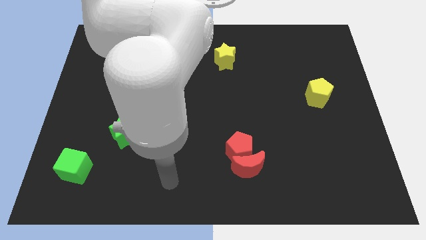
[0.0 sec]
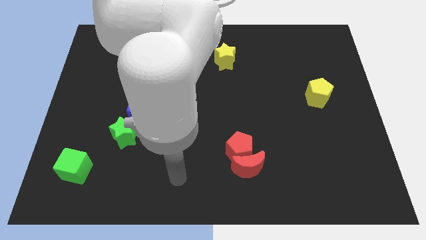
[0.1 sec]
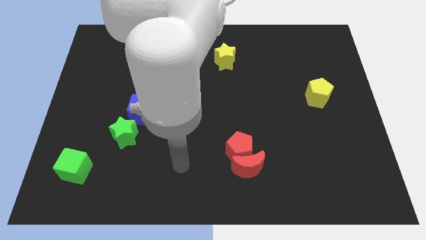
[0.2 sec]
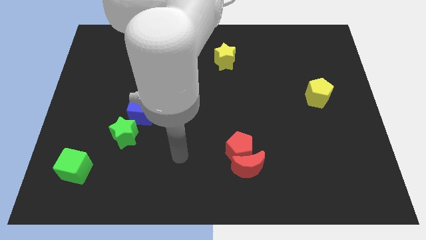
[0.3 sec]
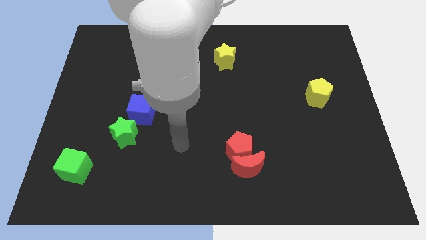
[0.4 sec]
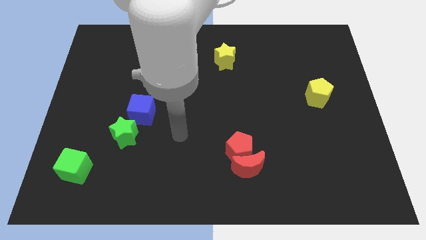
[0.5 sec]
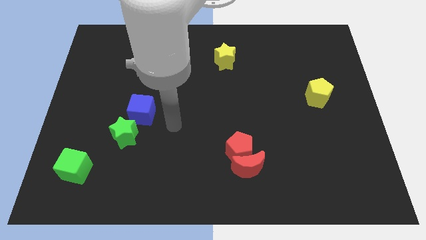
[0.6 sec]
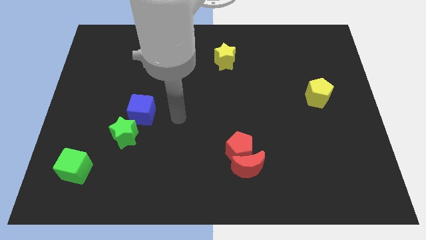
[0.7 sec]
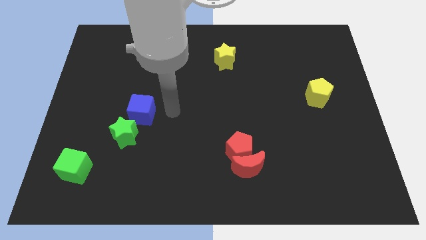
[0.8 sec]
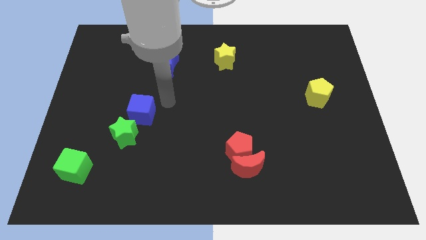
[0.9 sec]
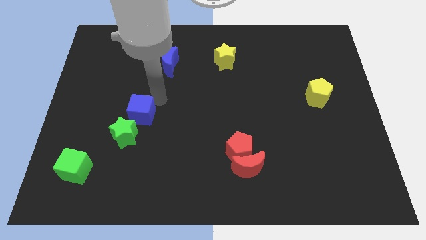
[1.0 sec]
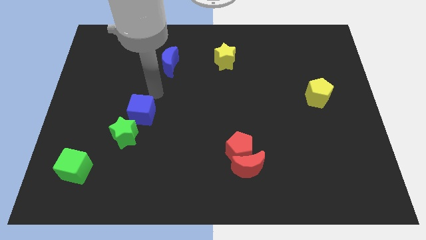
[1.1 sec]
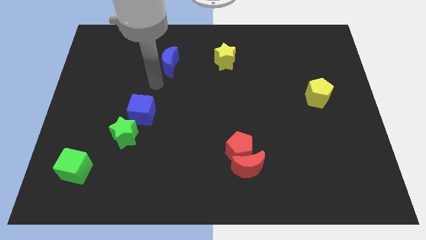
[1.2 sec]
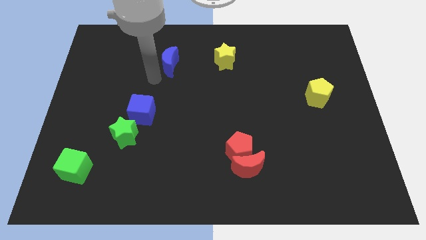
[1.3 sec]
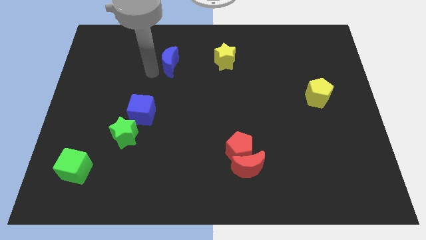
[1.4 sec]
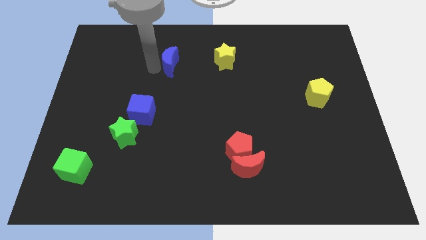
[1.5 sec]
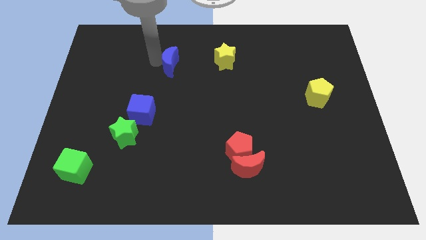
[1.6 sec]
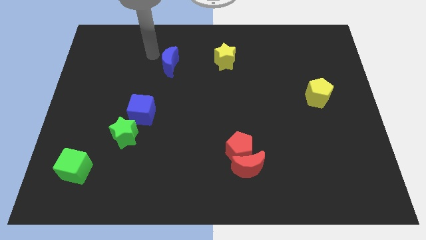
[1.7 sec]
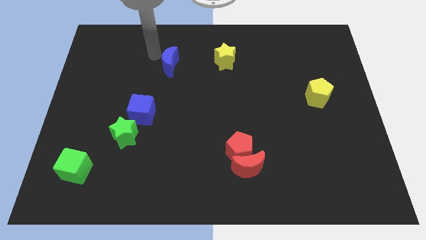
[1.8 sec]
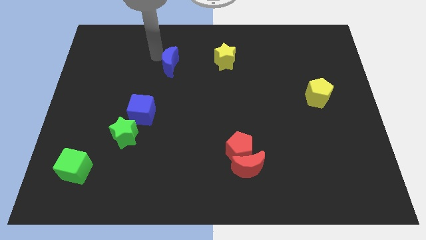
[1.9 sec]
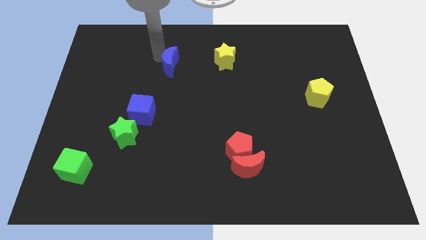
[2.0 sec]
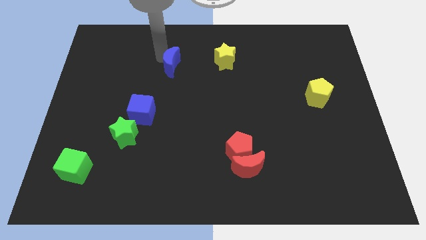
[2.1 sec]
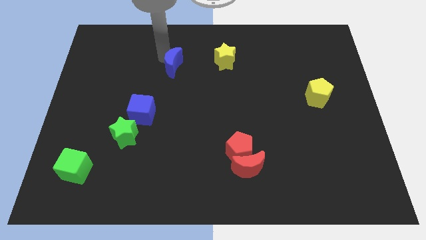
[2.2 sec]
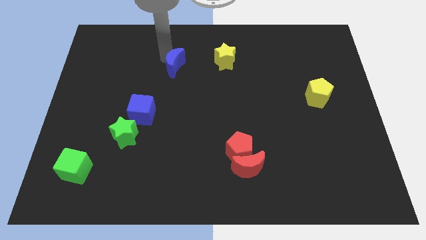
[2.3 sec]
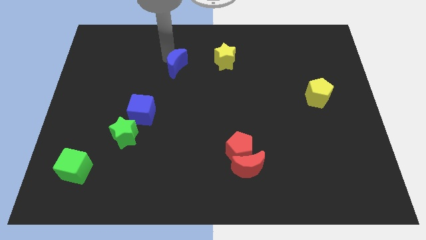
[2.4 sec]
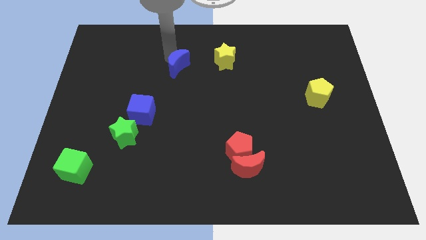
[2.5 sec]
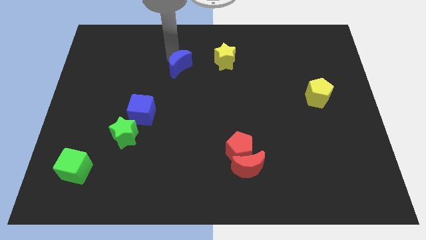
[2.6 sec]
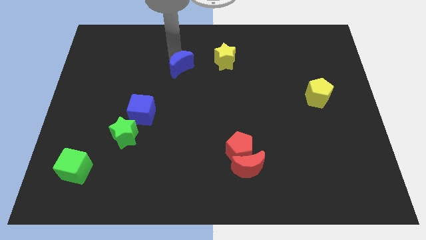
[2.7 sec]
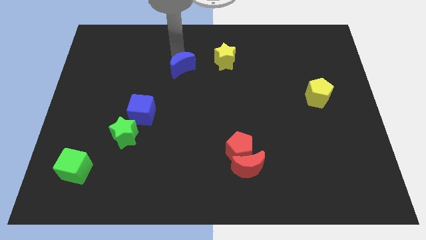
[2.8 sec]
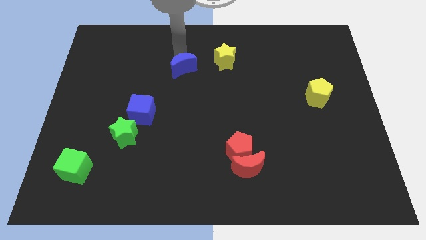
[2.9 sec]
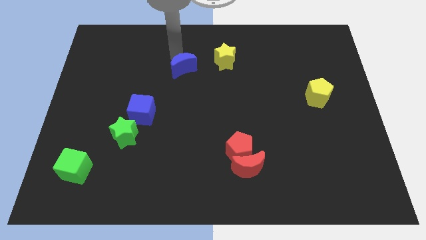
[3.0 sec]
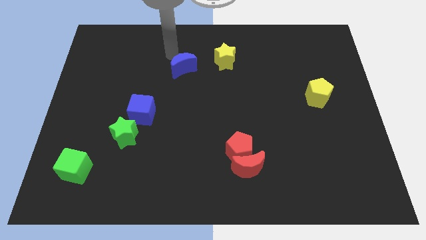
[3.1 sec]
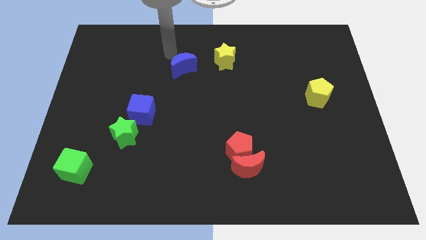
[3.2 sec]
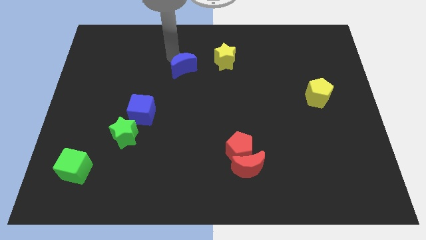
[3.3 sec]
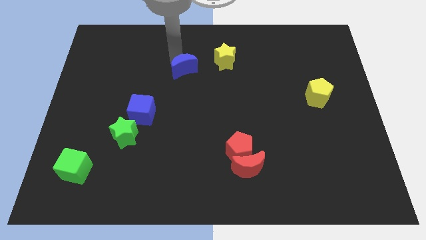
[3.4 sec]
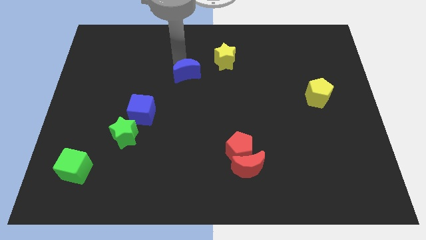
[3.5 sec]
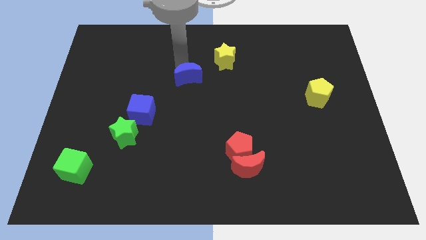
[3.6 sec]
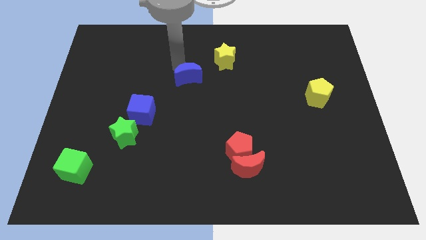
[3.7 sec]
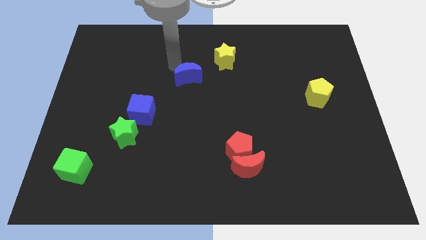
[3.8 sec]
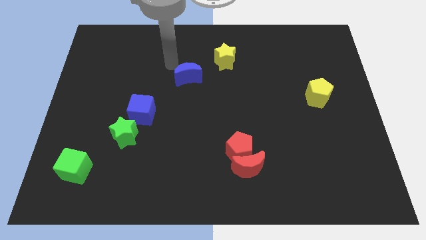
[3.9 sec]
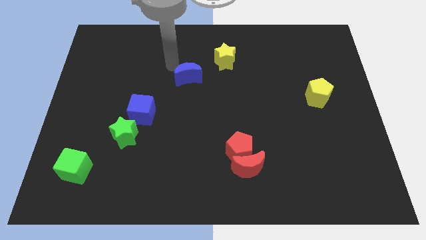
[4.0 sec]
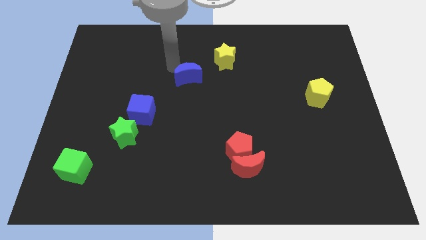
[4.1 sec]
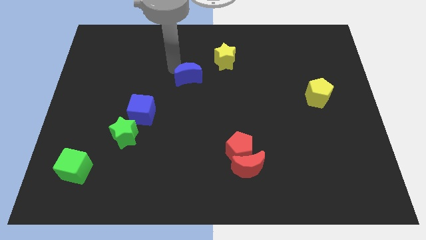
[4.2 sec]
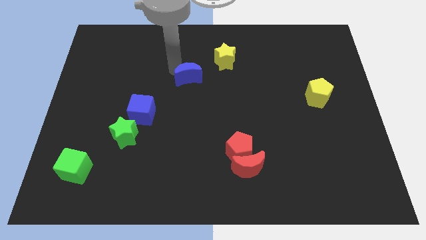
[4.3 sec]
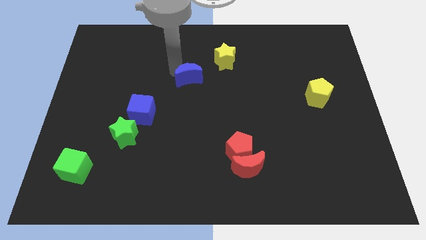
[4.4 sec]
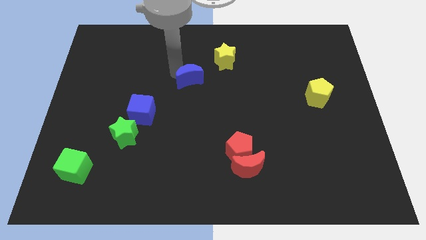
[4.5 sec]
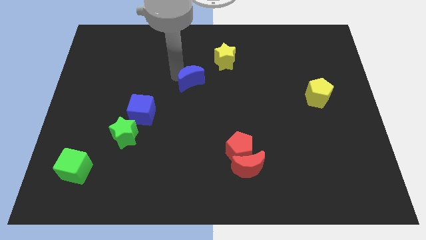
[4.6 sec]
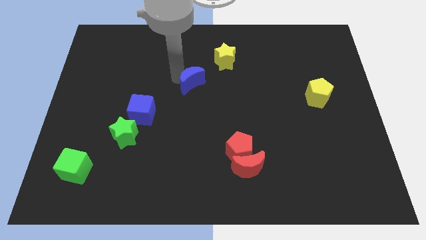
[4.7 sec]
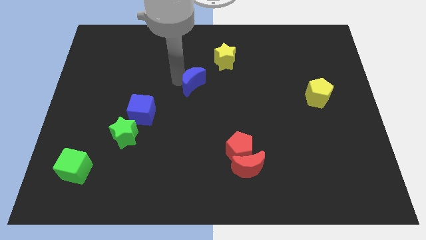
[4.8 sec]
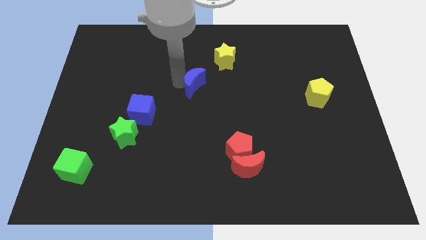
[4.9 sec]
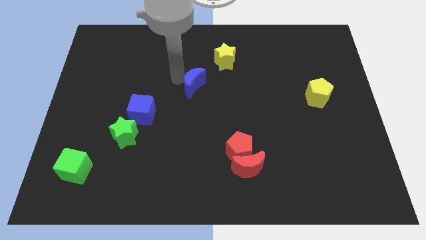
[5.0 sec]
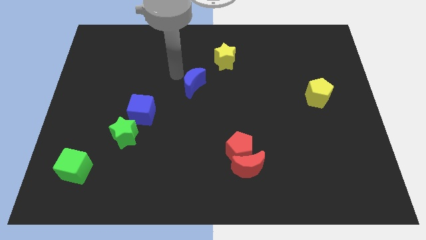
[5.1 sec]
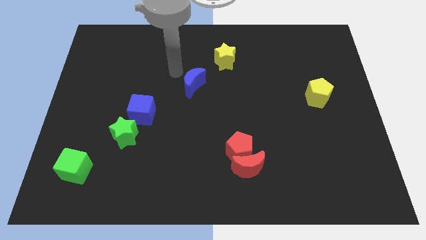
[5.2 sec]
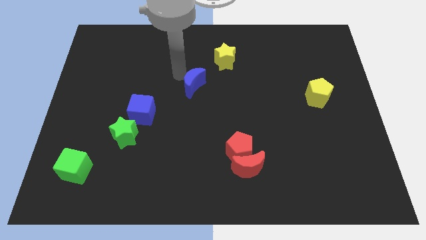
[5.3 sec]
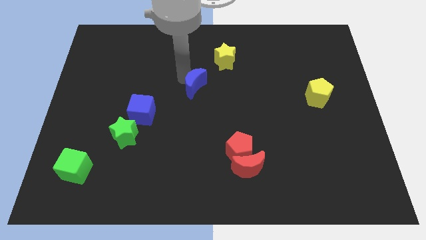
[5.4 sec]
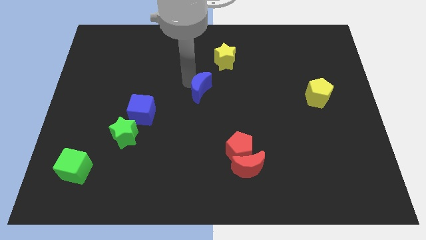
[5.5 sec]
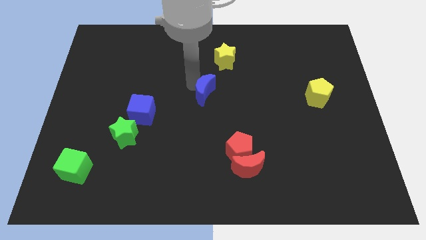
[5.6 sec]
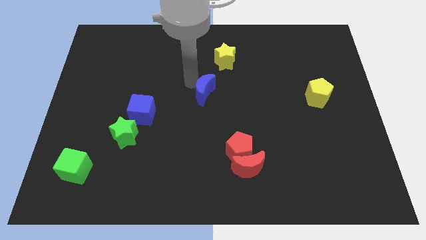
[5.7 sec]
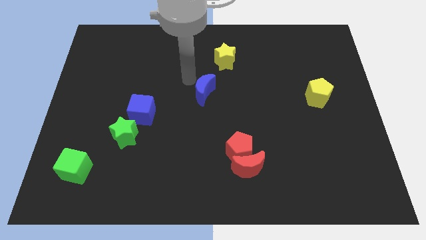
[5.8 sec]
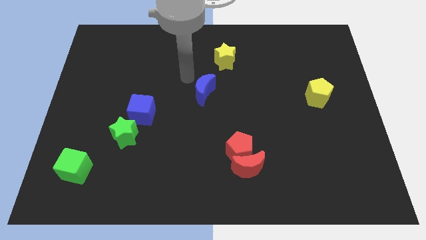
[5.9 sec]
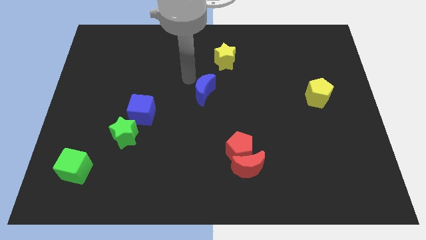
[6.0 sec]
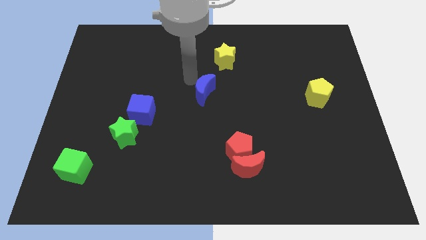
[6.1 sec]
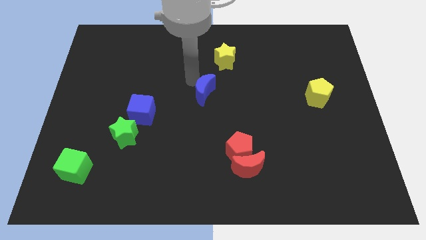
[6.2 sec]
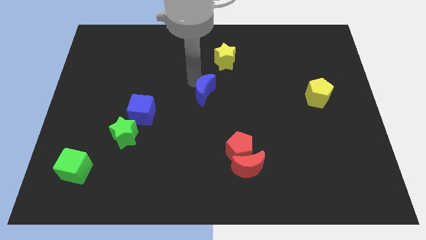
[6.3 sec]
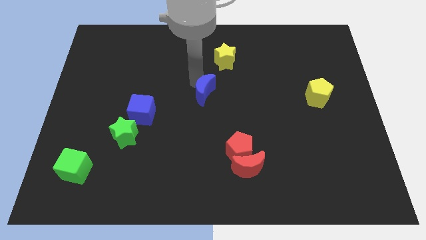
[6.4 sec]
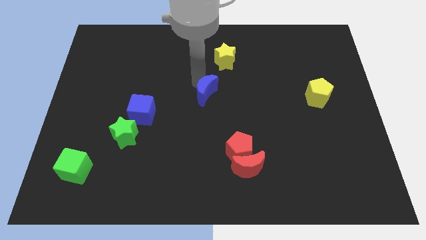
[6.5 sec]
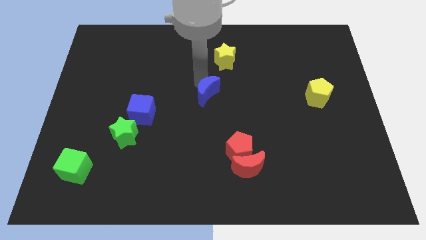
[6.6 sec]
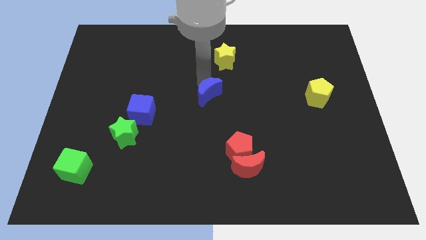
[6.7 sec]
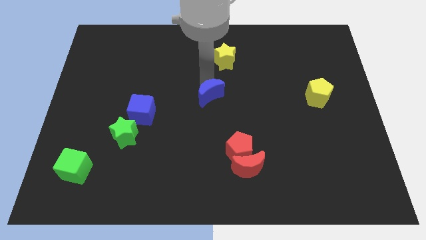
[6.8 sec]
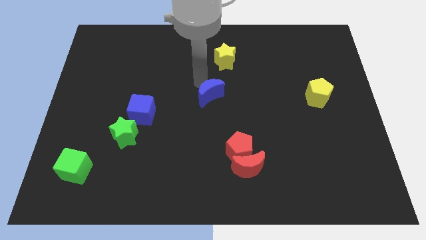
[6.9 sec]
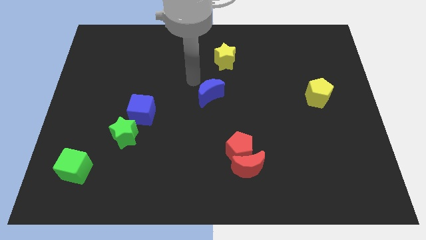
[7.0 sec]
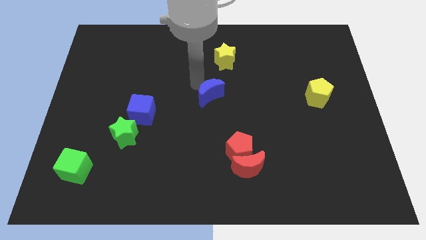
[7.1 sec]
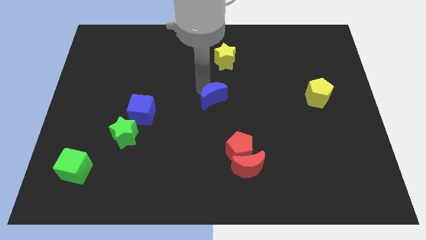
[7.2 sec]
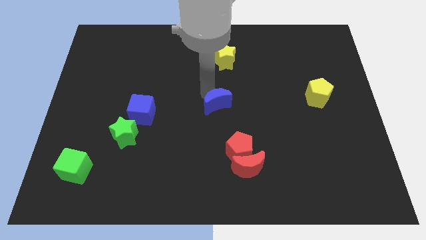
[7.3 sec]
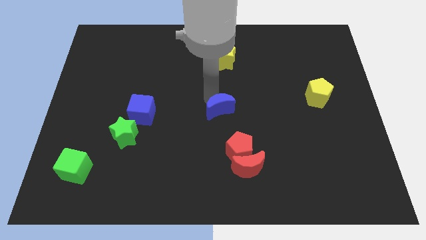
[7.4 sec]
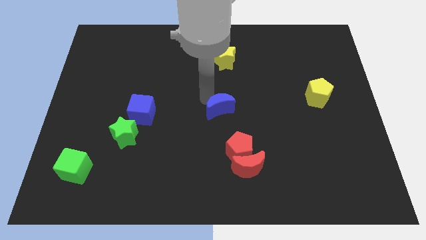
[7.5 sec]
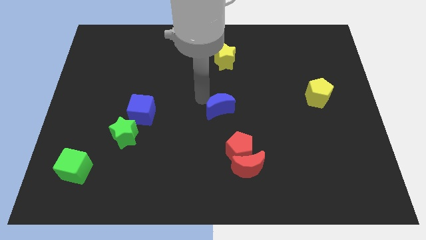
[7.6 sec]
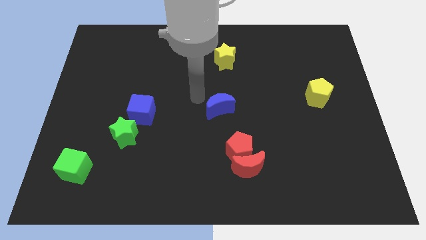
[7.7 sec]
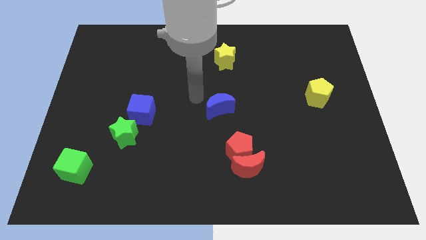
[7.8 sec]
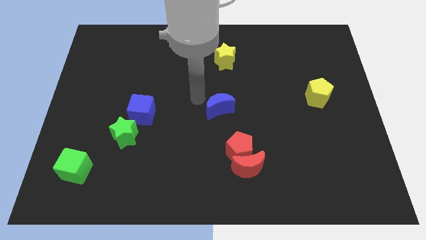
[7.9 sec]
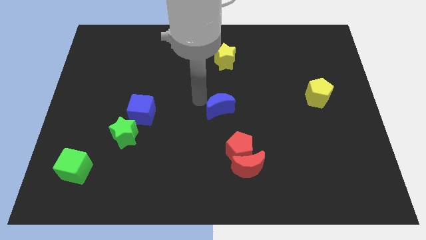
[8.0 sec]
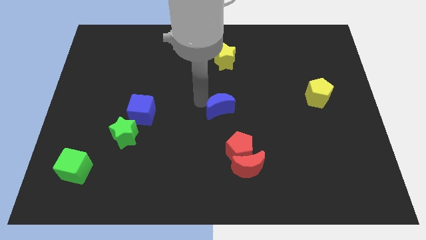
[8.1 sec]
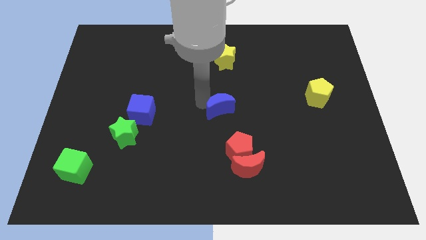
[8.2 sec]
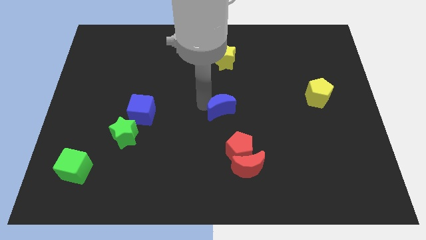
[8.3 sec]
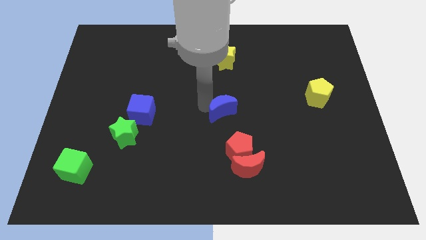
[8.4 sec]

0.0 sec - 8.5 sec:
push the blue moon downwards and to the right diagonally
